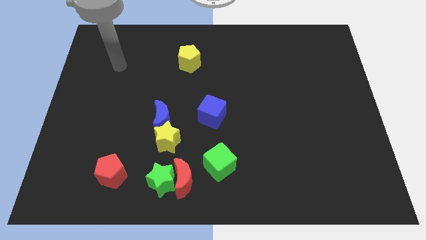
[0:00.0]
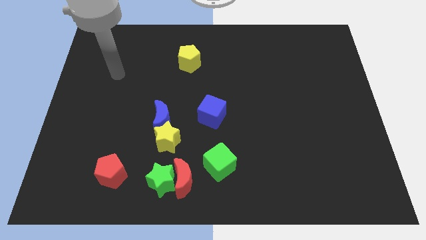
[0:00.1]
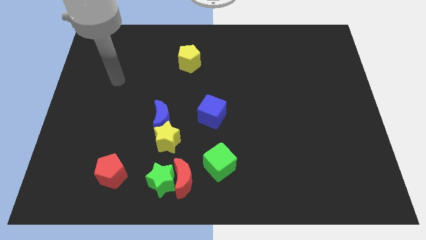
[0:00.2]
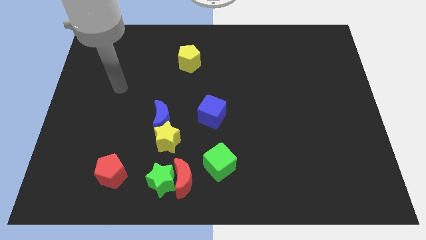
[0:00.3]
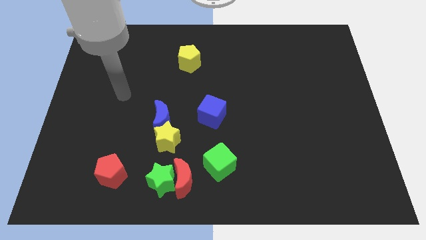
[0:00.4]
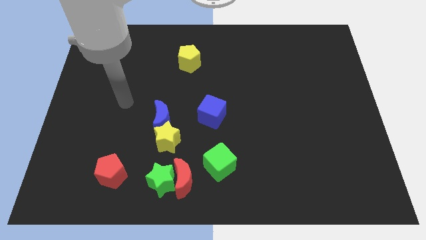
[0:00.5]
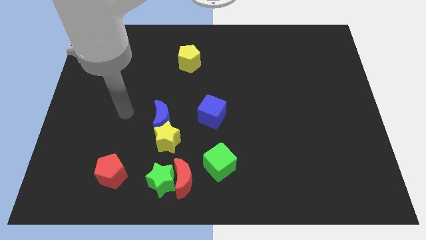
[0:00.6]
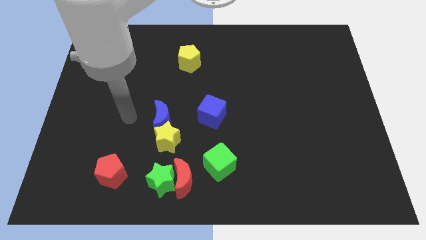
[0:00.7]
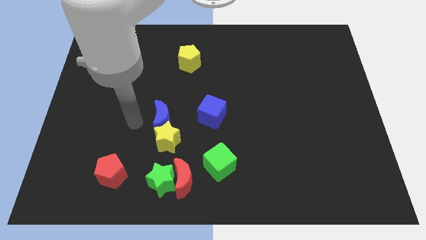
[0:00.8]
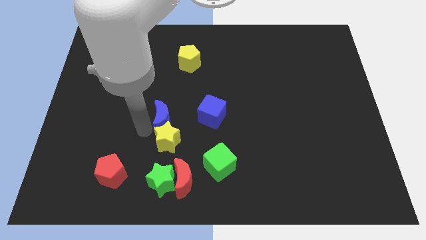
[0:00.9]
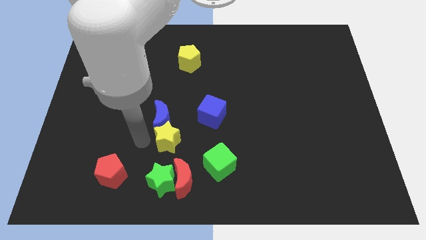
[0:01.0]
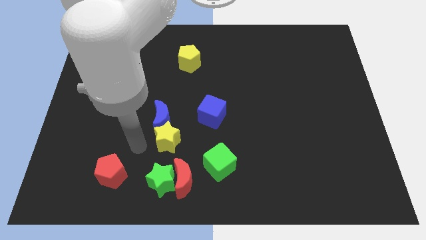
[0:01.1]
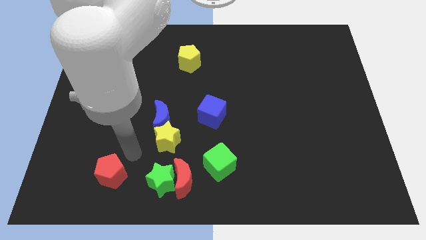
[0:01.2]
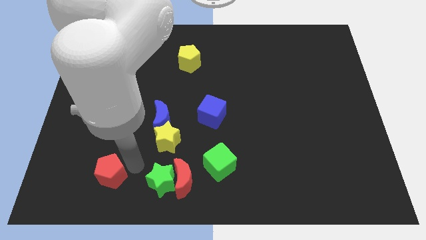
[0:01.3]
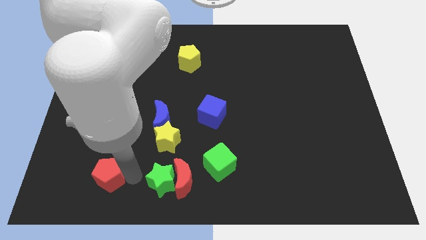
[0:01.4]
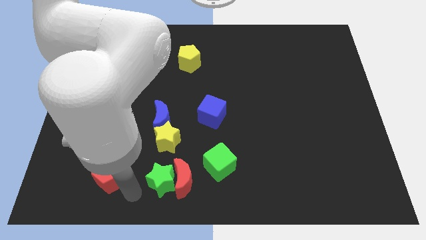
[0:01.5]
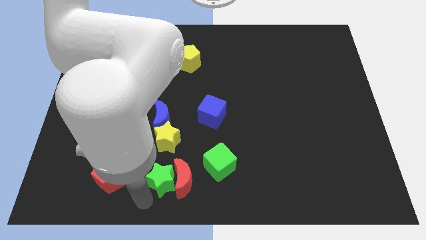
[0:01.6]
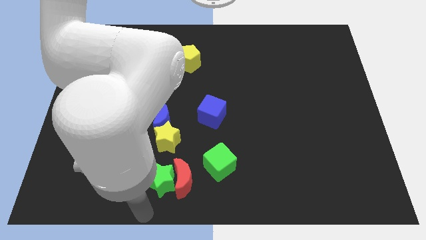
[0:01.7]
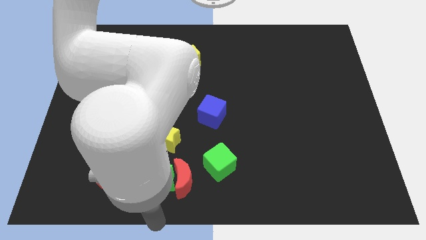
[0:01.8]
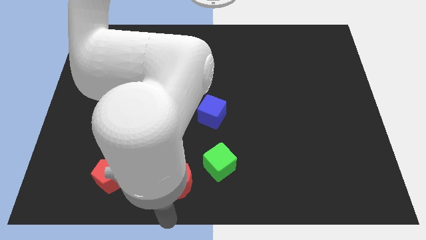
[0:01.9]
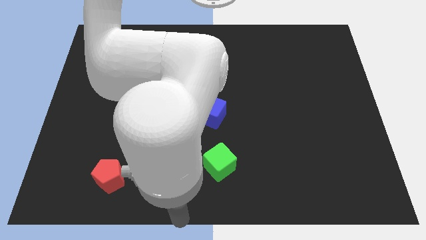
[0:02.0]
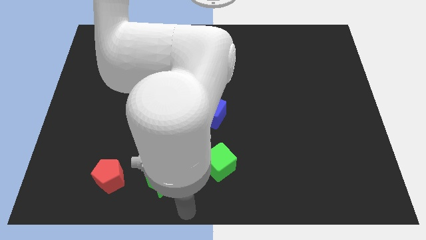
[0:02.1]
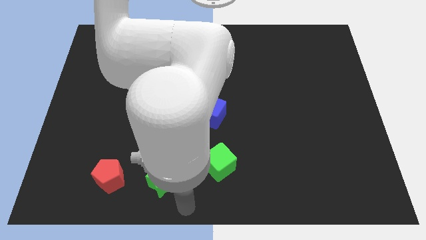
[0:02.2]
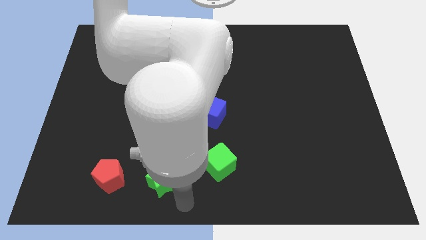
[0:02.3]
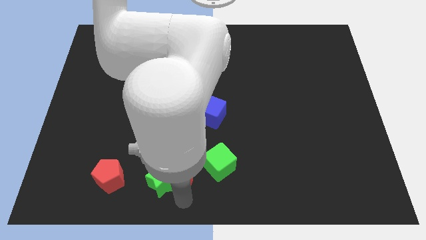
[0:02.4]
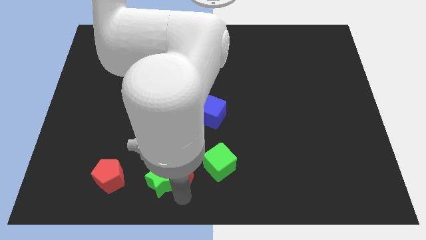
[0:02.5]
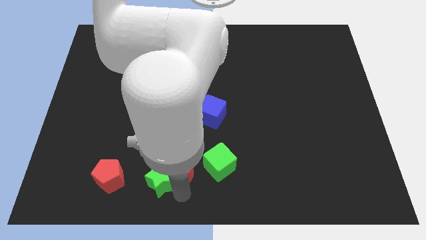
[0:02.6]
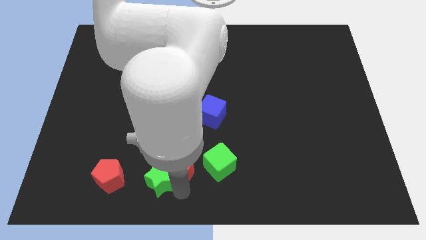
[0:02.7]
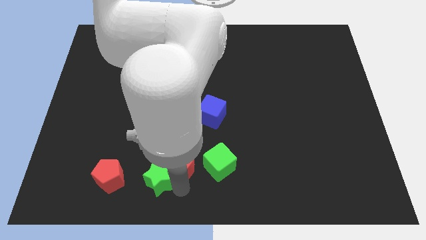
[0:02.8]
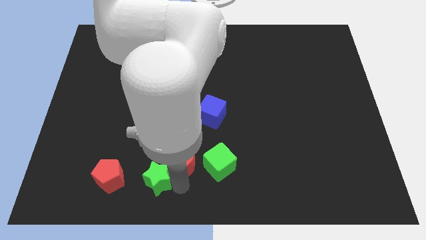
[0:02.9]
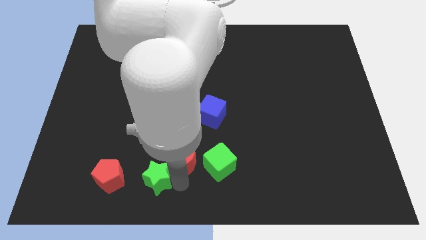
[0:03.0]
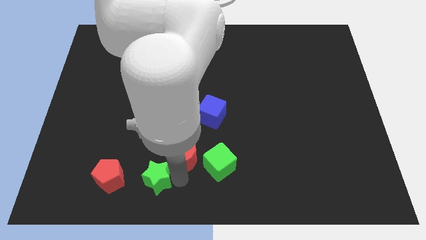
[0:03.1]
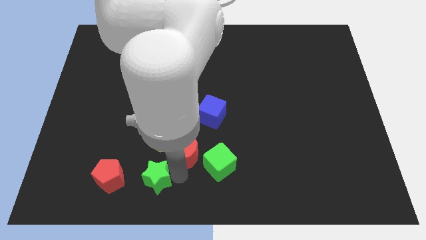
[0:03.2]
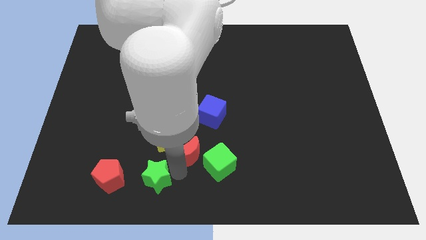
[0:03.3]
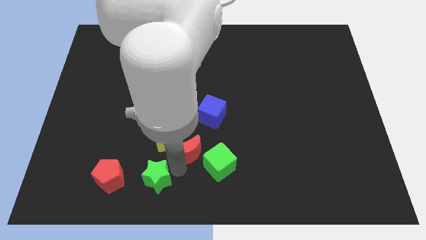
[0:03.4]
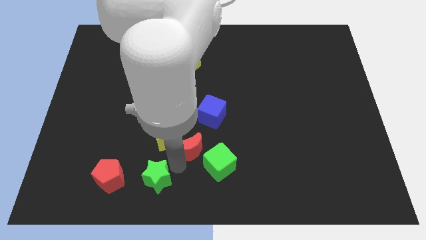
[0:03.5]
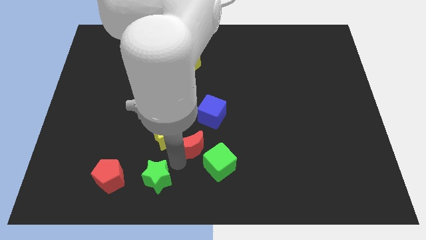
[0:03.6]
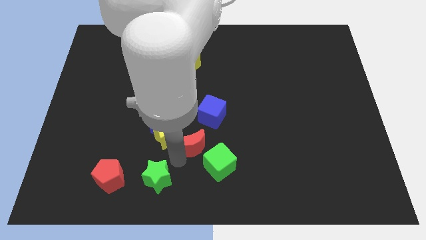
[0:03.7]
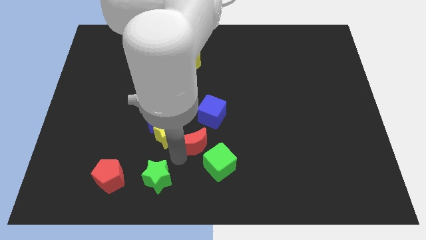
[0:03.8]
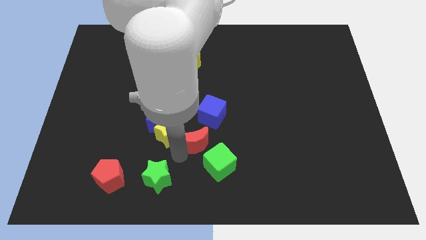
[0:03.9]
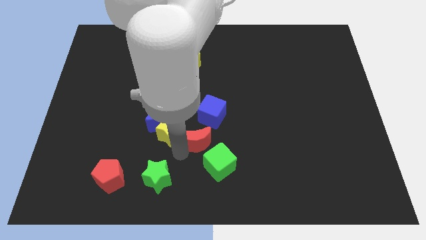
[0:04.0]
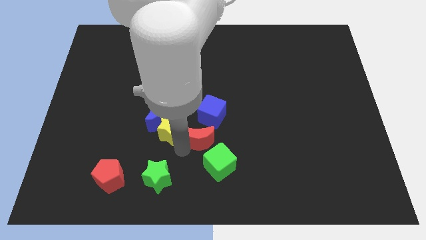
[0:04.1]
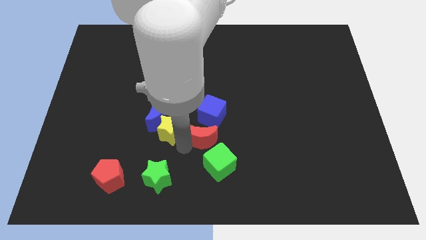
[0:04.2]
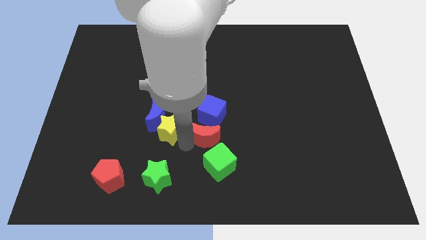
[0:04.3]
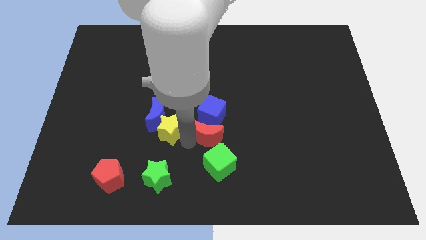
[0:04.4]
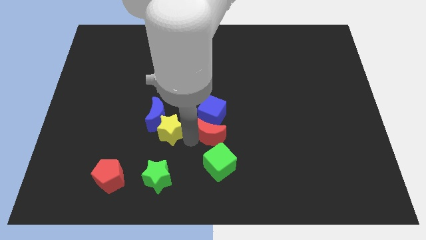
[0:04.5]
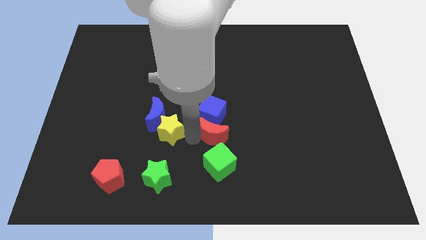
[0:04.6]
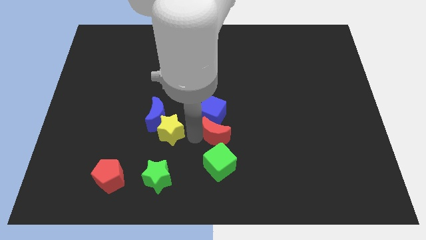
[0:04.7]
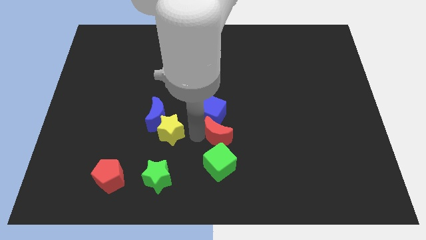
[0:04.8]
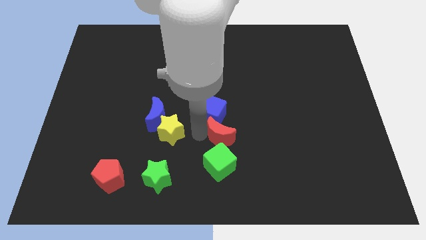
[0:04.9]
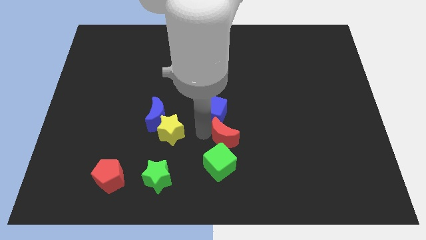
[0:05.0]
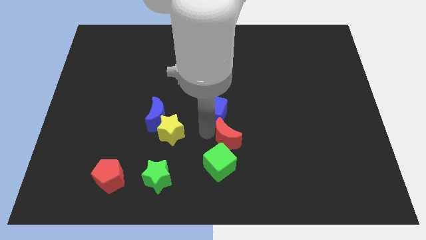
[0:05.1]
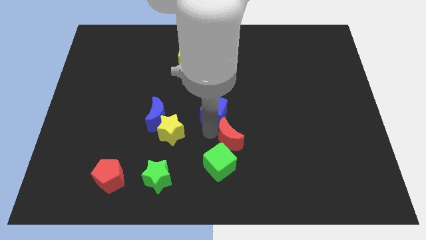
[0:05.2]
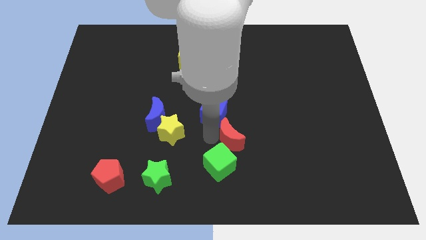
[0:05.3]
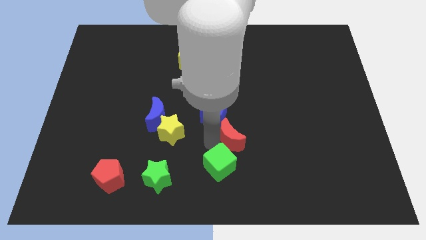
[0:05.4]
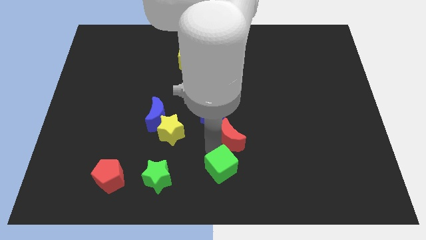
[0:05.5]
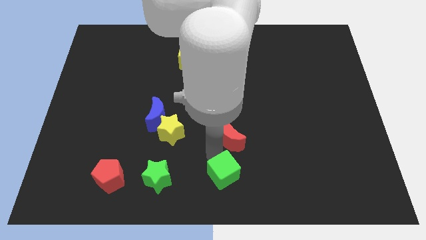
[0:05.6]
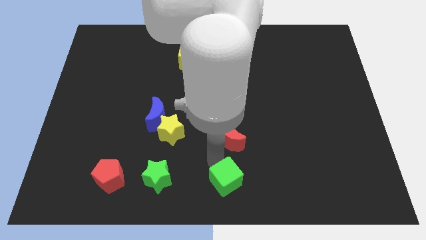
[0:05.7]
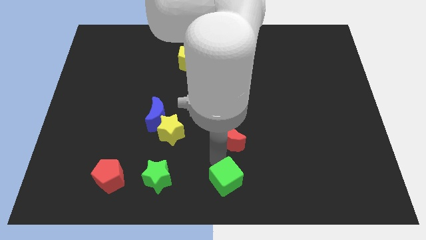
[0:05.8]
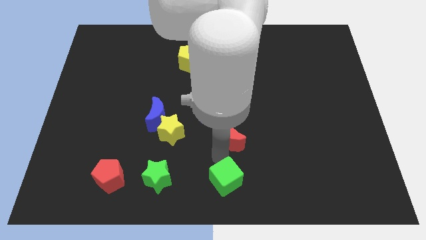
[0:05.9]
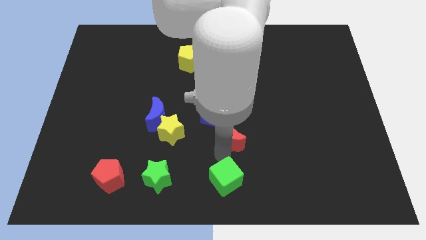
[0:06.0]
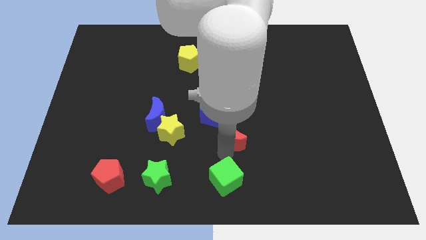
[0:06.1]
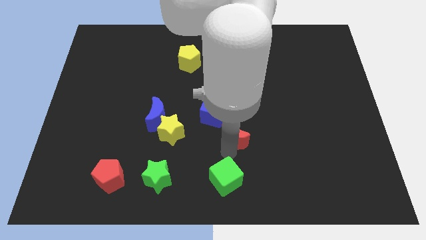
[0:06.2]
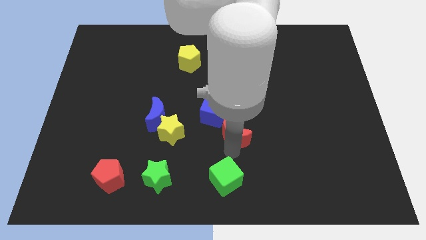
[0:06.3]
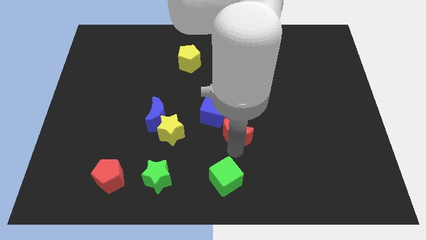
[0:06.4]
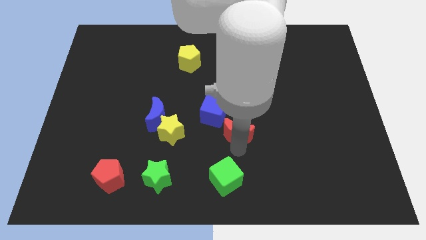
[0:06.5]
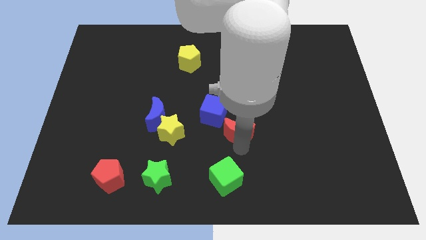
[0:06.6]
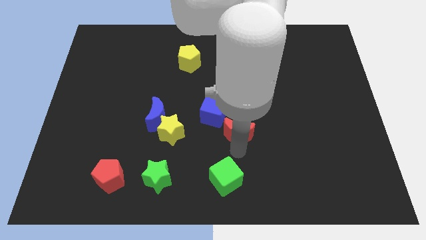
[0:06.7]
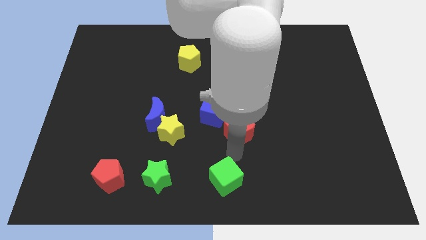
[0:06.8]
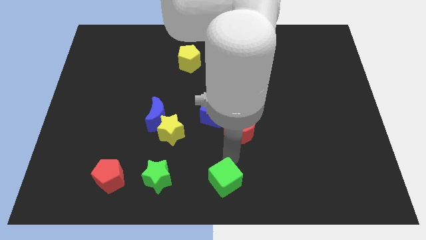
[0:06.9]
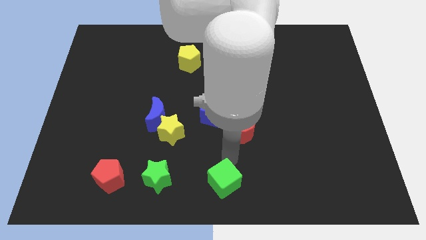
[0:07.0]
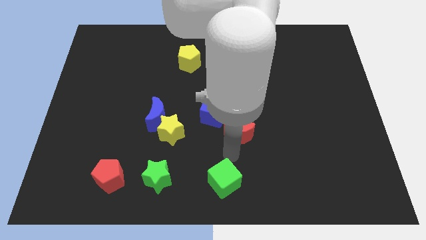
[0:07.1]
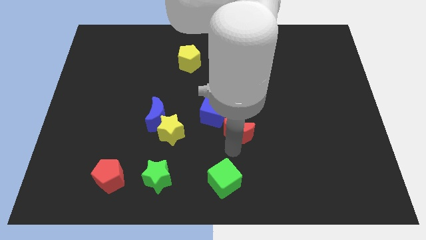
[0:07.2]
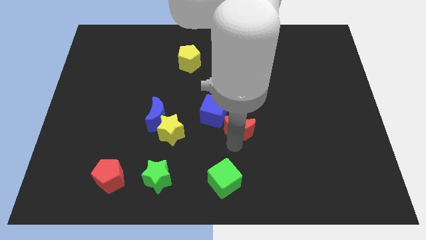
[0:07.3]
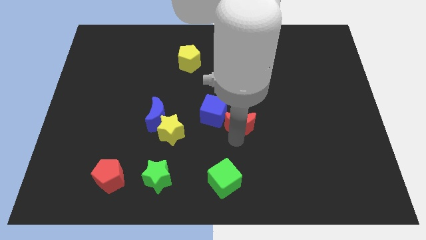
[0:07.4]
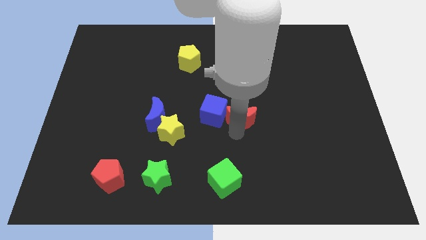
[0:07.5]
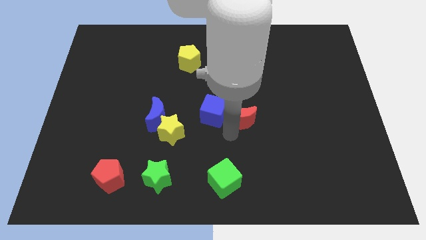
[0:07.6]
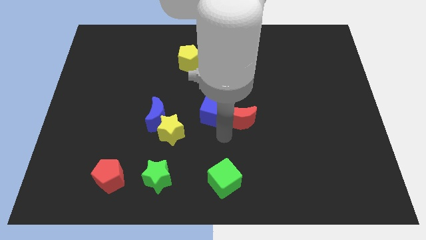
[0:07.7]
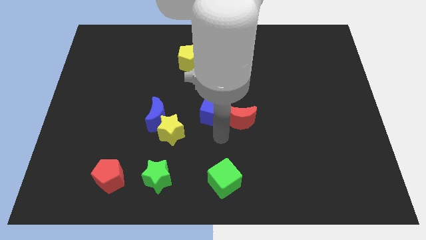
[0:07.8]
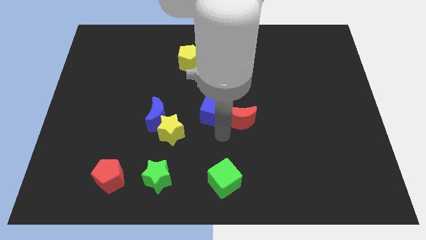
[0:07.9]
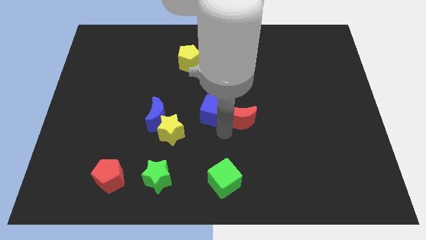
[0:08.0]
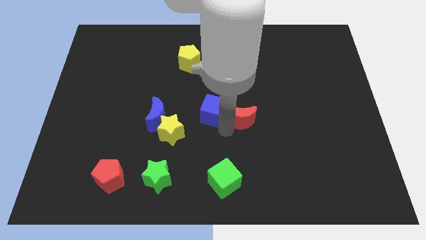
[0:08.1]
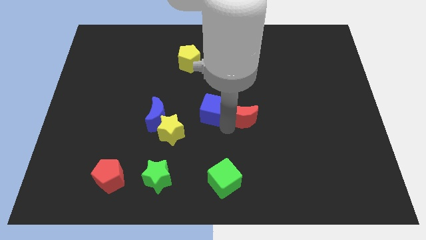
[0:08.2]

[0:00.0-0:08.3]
push the red moon upwards and to the right
